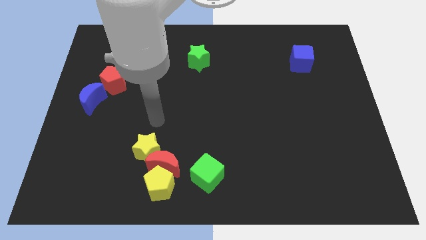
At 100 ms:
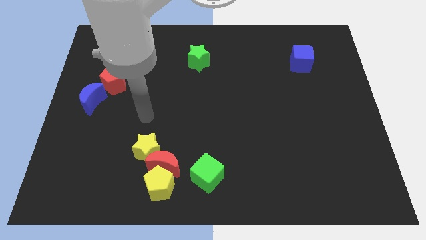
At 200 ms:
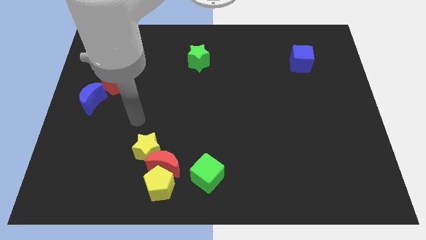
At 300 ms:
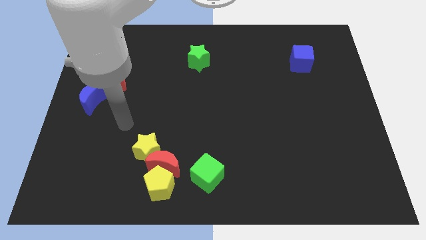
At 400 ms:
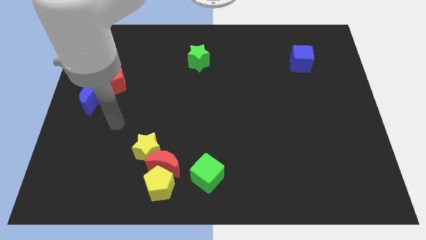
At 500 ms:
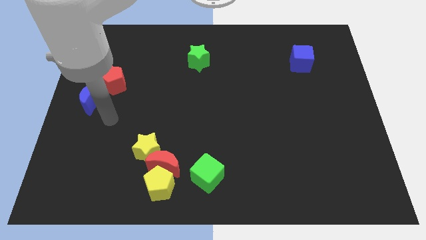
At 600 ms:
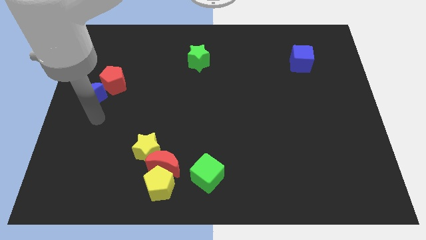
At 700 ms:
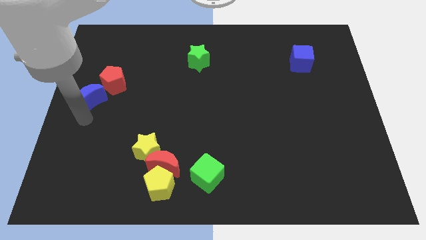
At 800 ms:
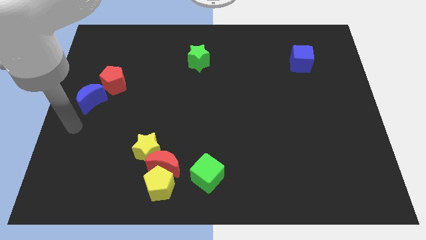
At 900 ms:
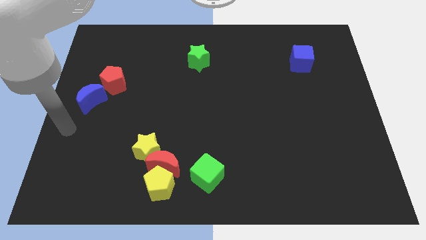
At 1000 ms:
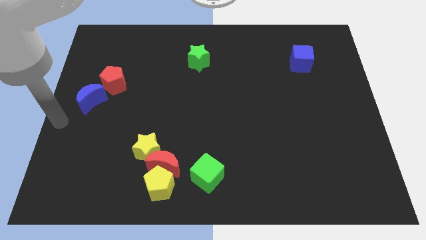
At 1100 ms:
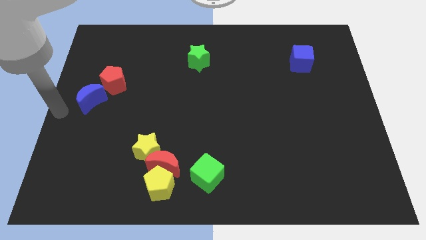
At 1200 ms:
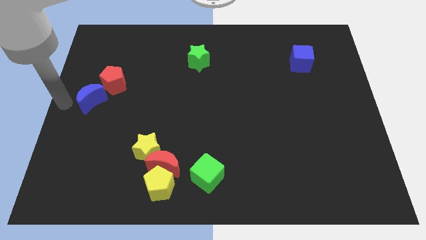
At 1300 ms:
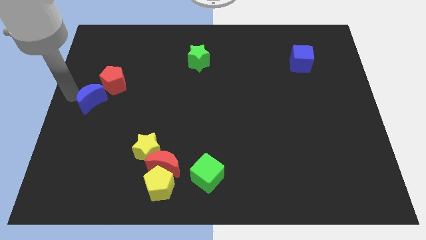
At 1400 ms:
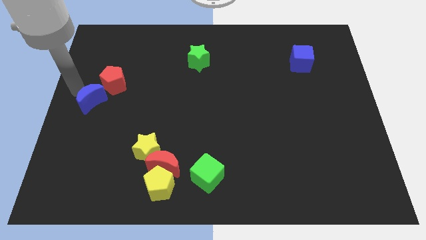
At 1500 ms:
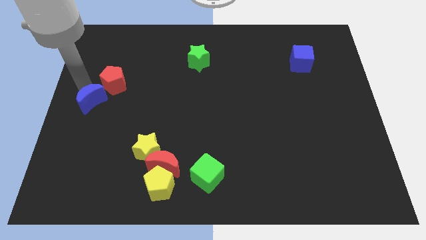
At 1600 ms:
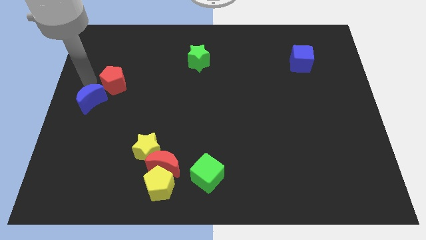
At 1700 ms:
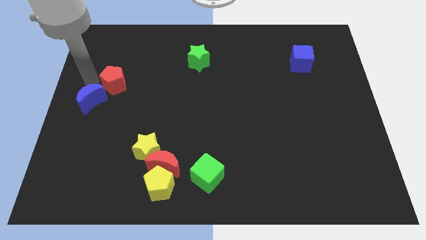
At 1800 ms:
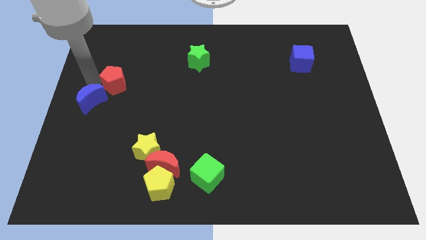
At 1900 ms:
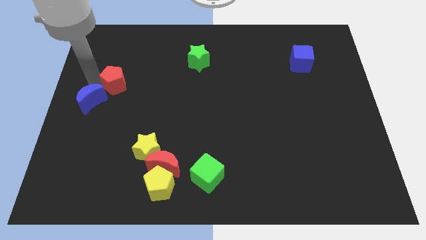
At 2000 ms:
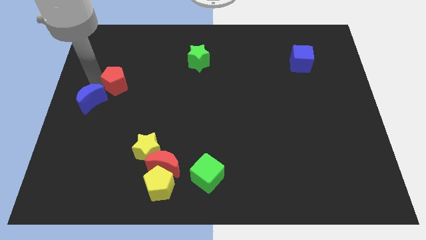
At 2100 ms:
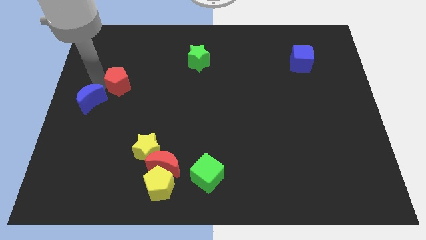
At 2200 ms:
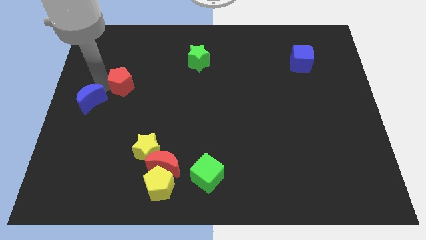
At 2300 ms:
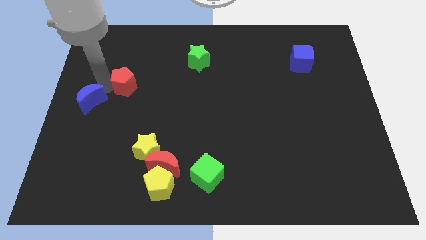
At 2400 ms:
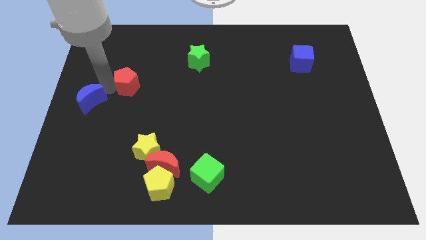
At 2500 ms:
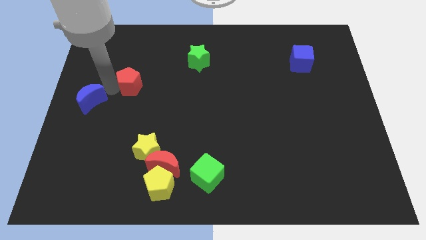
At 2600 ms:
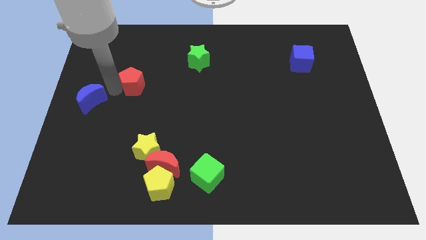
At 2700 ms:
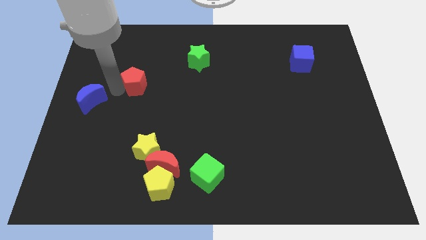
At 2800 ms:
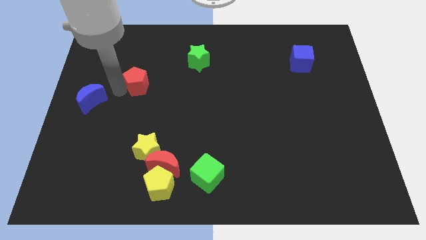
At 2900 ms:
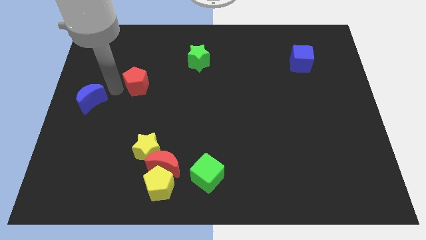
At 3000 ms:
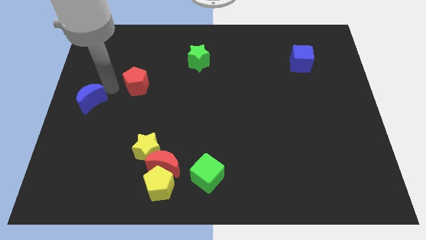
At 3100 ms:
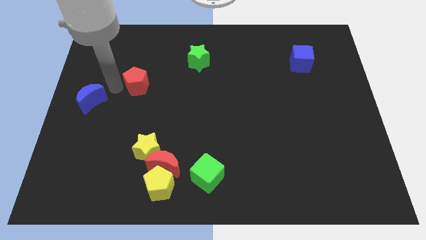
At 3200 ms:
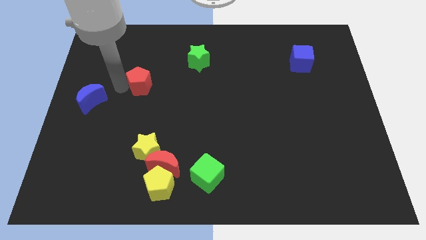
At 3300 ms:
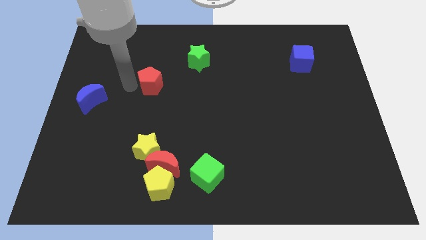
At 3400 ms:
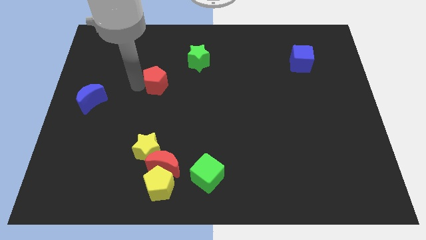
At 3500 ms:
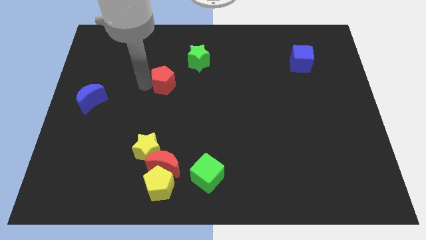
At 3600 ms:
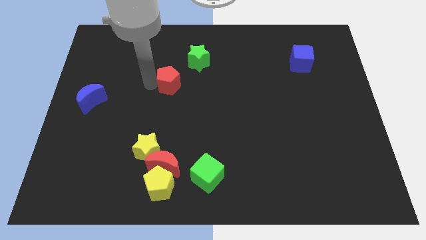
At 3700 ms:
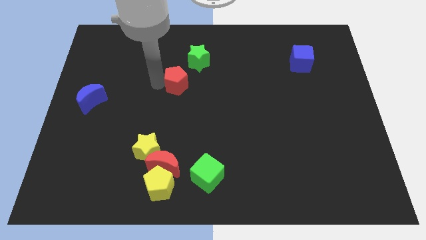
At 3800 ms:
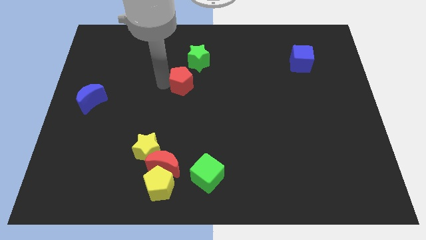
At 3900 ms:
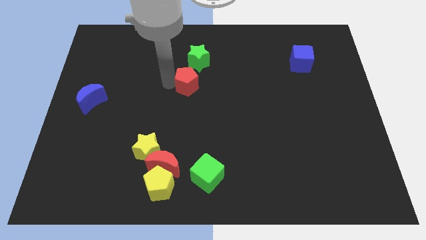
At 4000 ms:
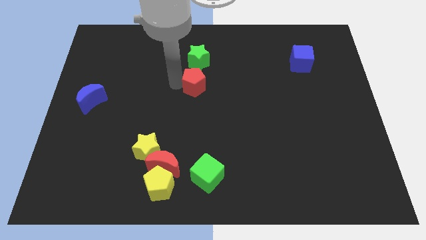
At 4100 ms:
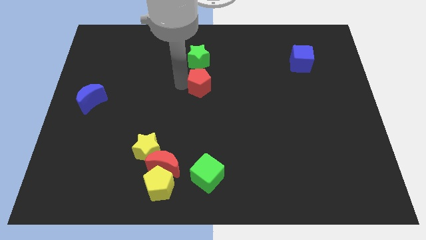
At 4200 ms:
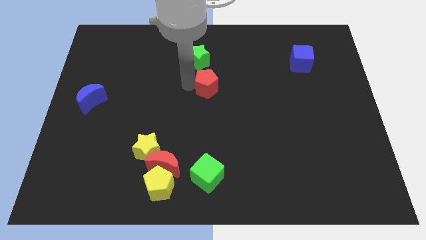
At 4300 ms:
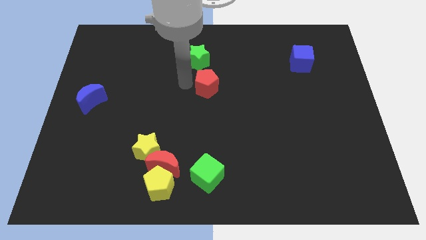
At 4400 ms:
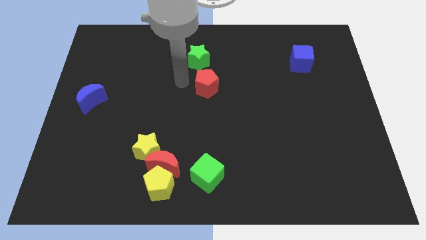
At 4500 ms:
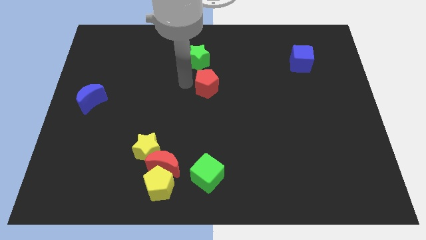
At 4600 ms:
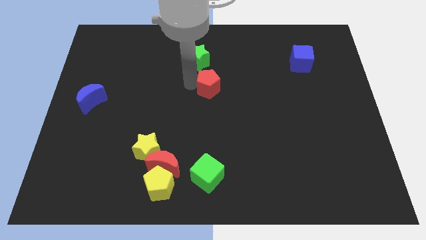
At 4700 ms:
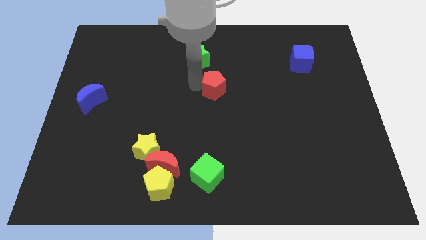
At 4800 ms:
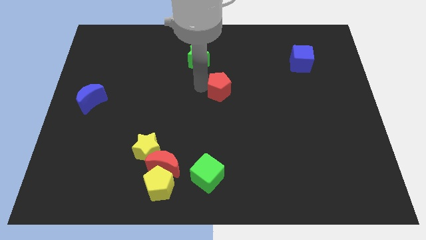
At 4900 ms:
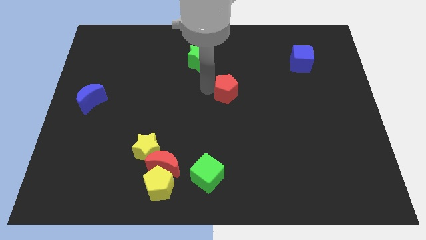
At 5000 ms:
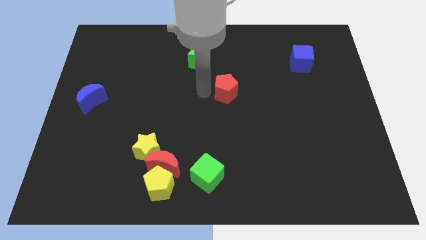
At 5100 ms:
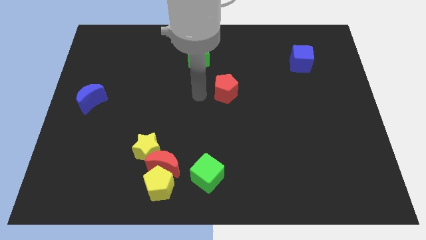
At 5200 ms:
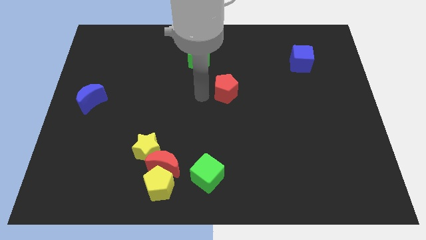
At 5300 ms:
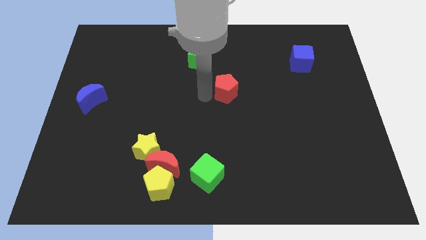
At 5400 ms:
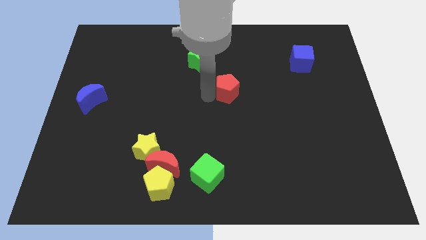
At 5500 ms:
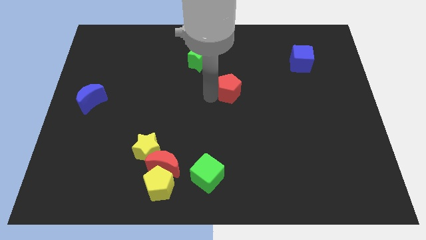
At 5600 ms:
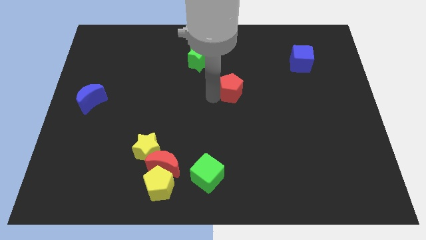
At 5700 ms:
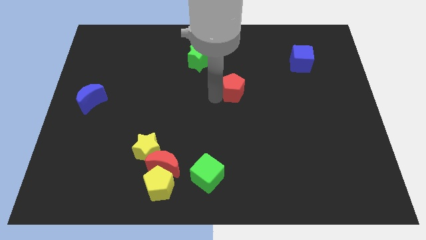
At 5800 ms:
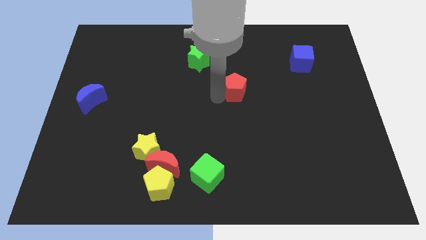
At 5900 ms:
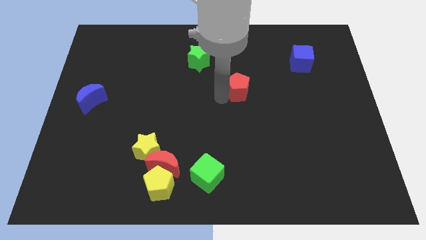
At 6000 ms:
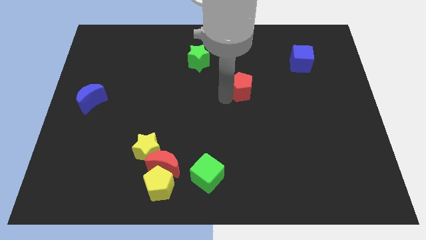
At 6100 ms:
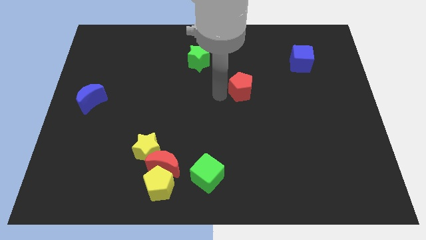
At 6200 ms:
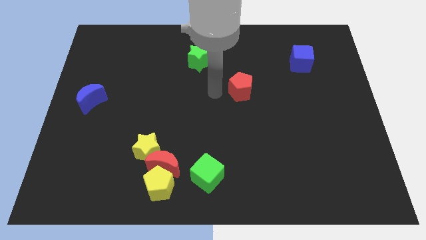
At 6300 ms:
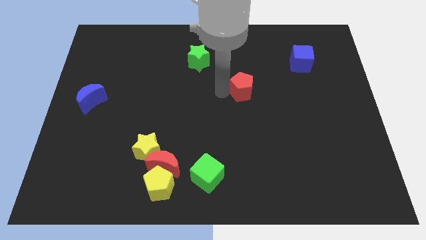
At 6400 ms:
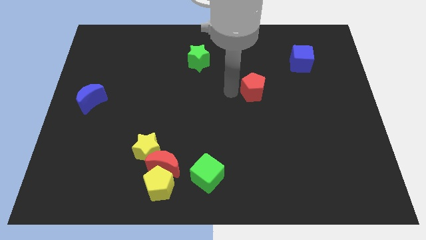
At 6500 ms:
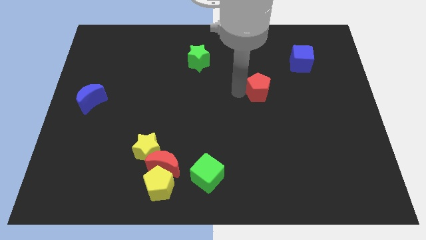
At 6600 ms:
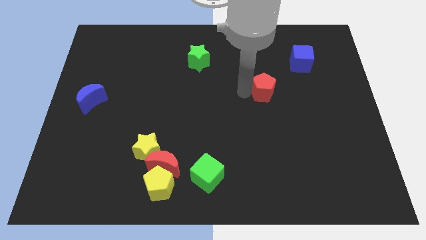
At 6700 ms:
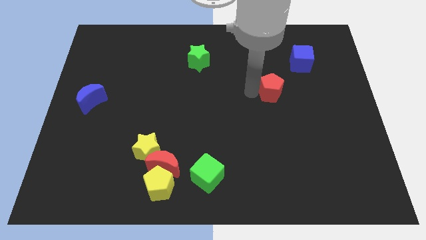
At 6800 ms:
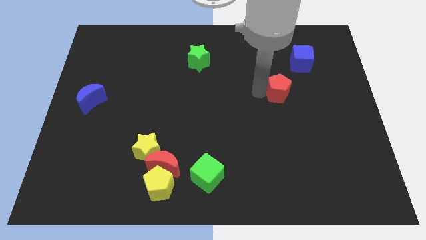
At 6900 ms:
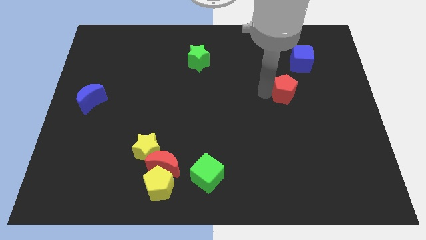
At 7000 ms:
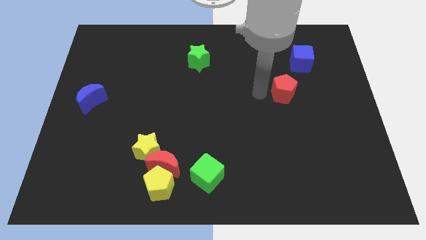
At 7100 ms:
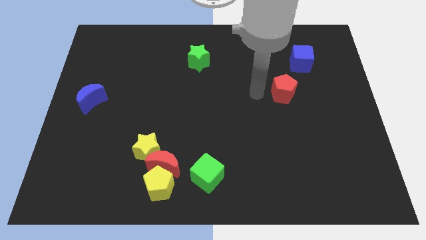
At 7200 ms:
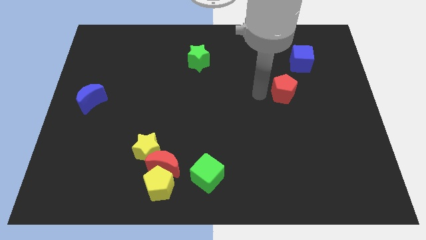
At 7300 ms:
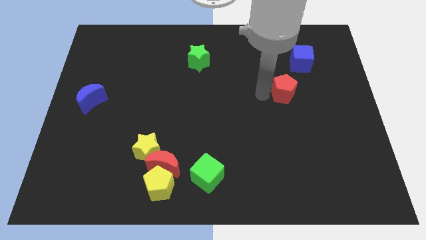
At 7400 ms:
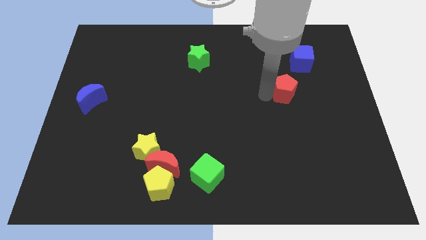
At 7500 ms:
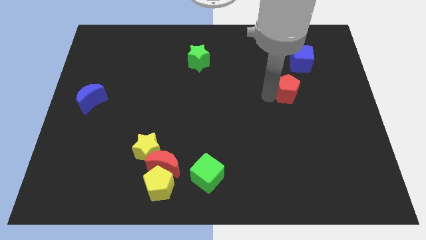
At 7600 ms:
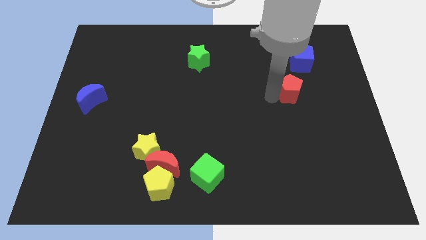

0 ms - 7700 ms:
put the red pentagon to the bottom of the blue cube
